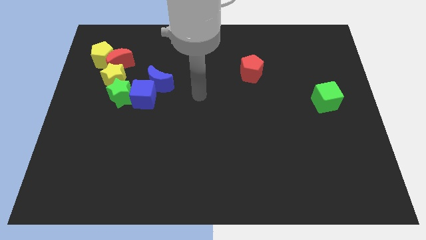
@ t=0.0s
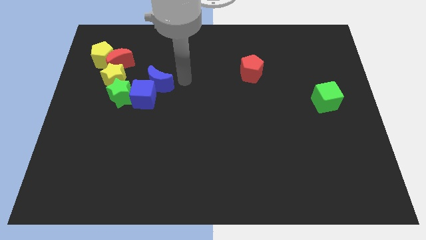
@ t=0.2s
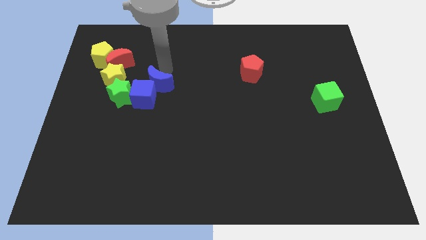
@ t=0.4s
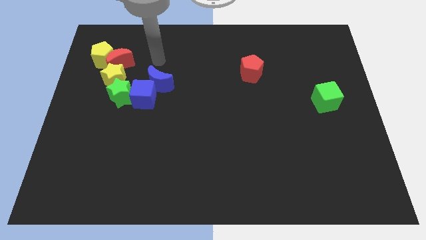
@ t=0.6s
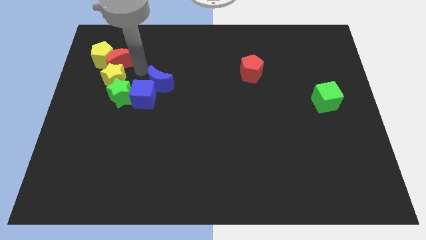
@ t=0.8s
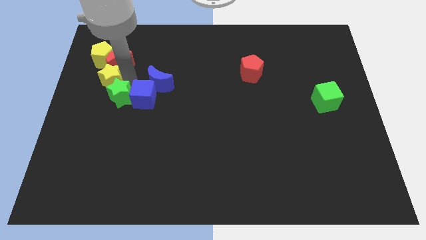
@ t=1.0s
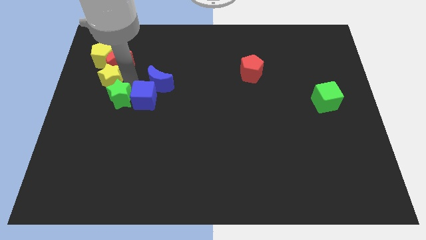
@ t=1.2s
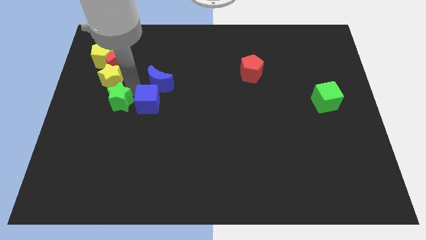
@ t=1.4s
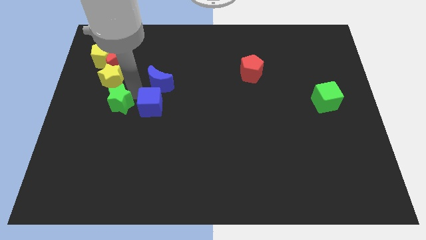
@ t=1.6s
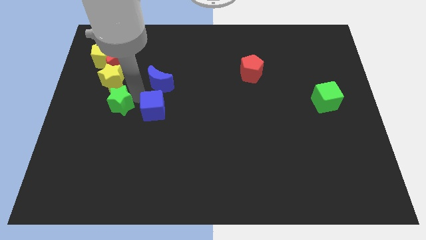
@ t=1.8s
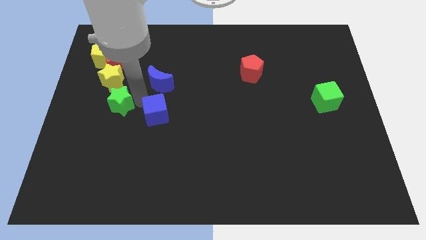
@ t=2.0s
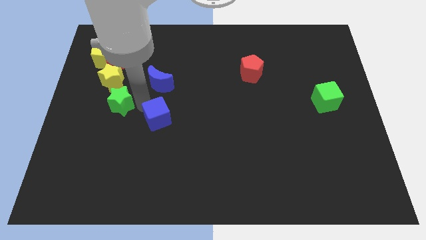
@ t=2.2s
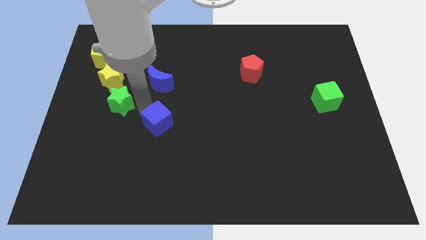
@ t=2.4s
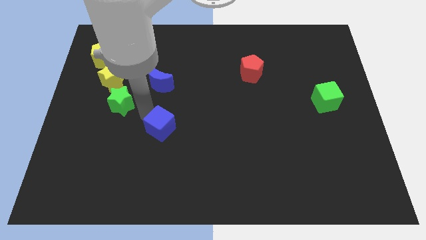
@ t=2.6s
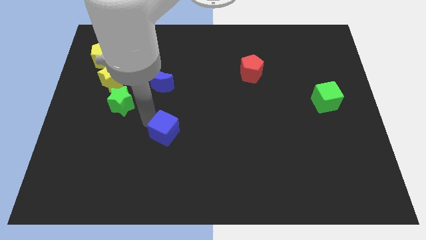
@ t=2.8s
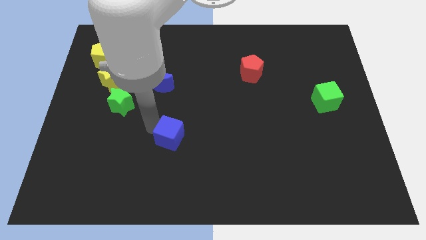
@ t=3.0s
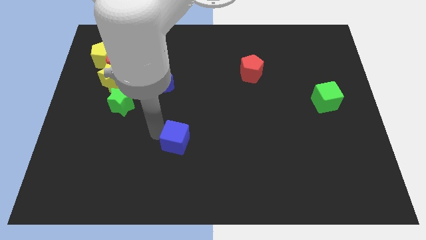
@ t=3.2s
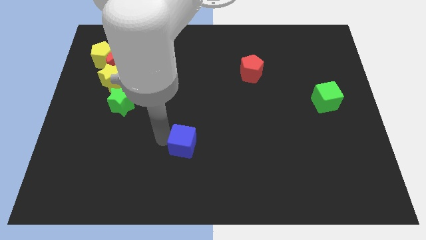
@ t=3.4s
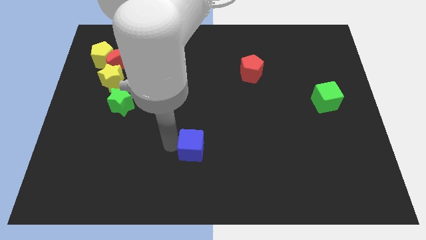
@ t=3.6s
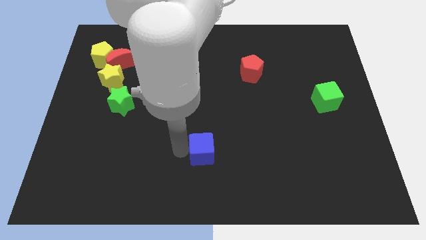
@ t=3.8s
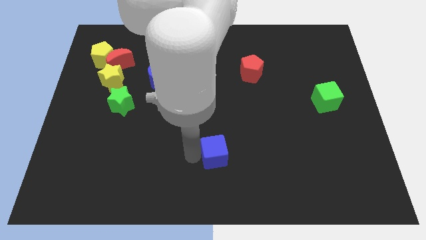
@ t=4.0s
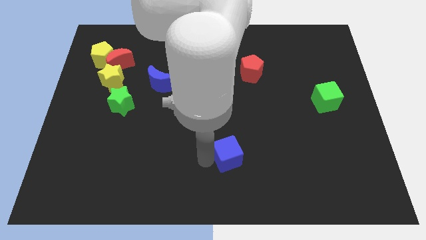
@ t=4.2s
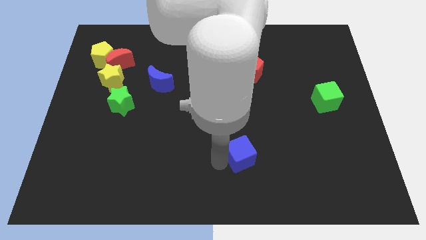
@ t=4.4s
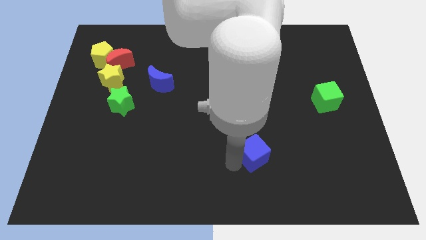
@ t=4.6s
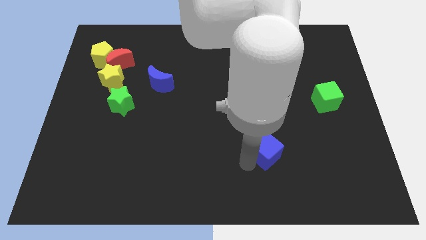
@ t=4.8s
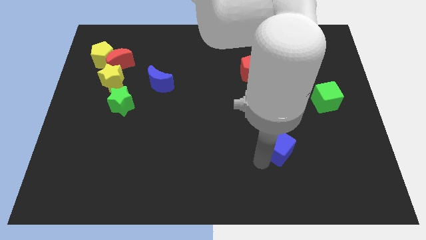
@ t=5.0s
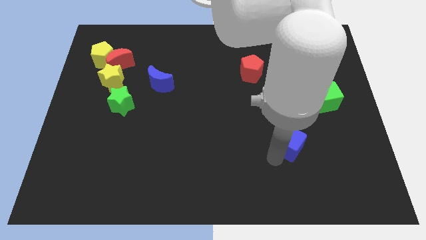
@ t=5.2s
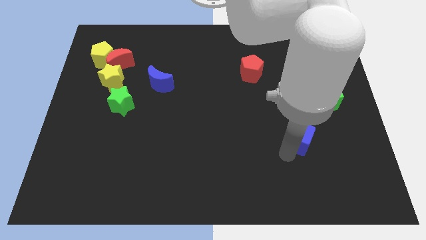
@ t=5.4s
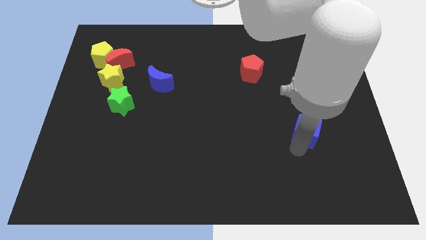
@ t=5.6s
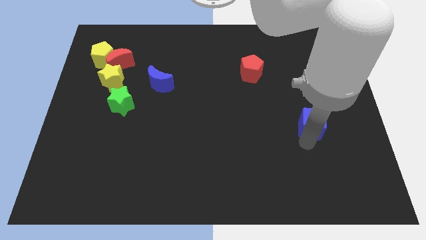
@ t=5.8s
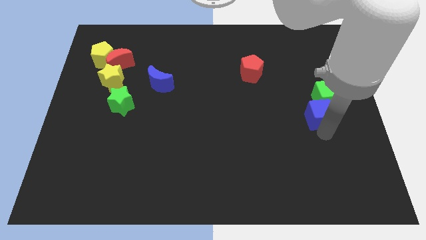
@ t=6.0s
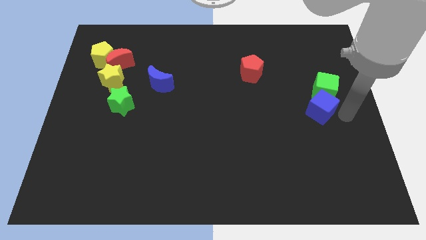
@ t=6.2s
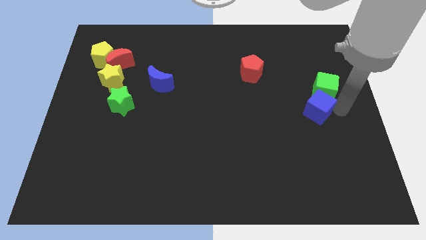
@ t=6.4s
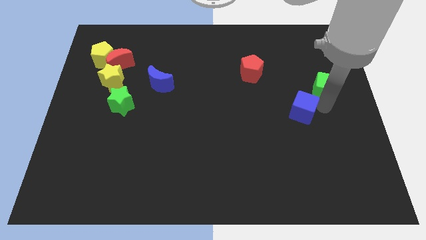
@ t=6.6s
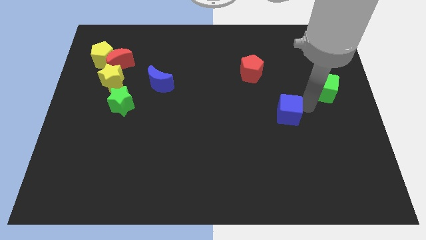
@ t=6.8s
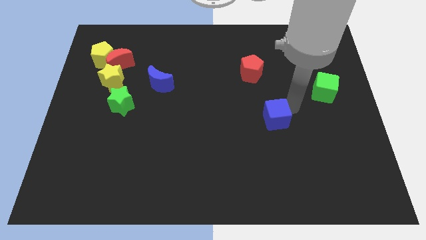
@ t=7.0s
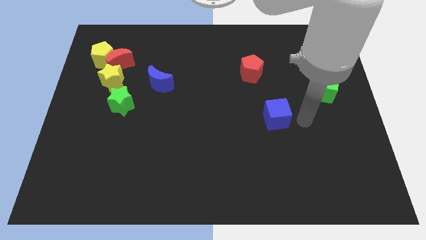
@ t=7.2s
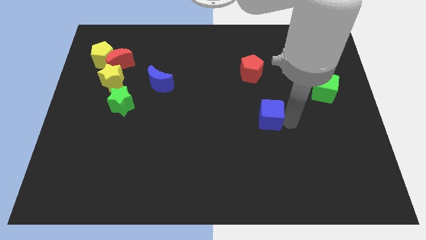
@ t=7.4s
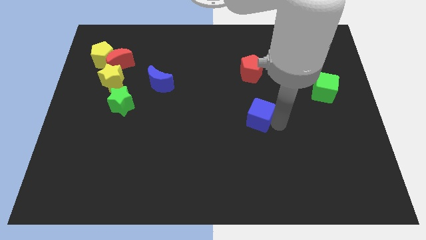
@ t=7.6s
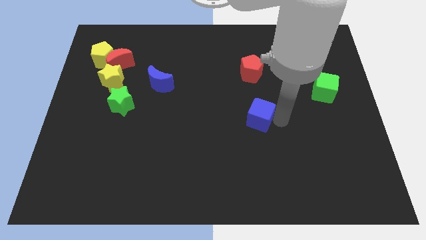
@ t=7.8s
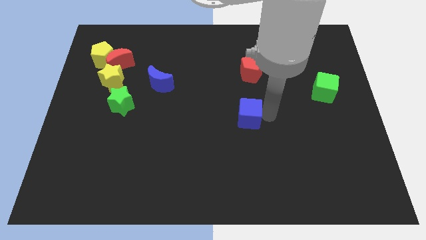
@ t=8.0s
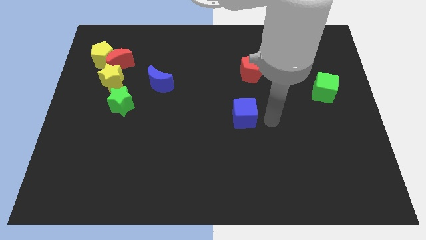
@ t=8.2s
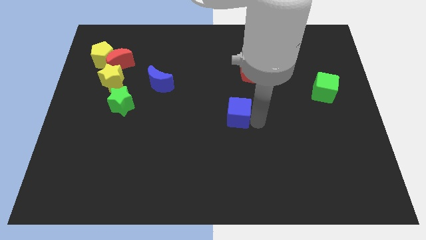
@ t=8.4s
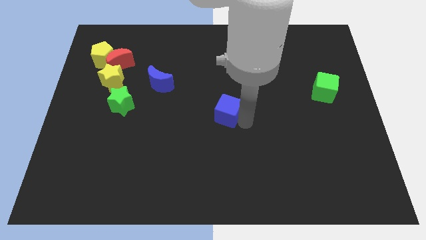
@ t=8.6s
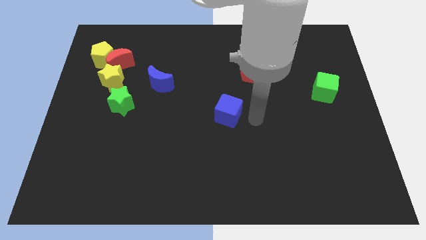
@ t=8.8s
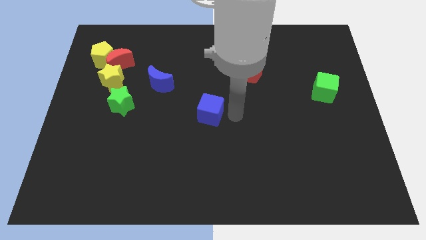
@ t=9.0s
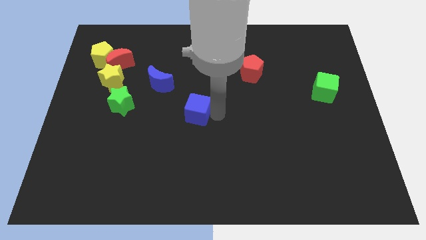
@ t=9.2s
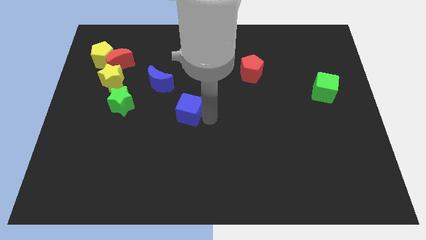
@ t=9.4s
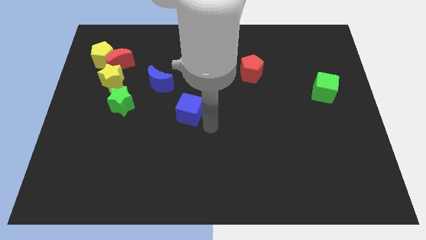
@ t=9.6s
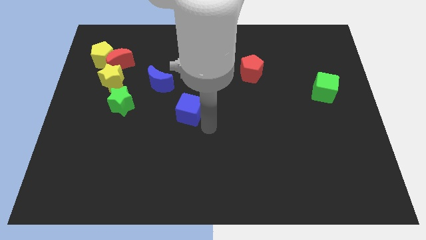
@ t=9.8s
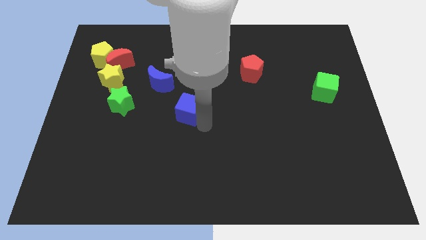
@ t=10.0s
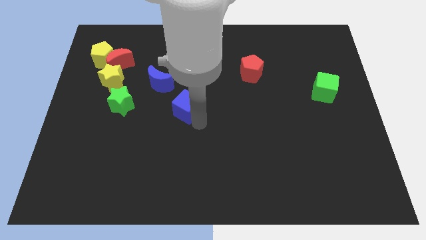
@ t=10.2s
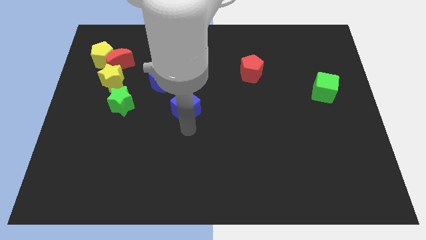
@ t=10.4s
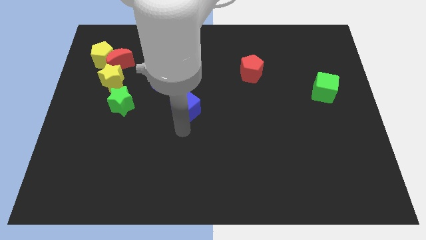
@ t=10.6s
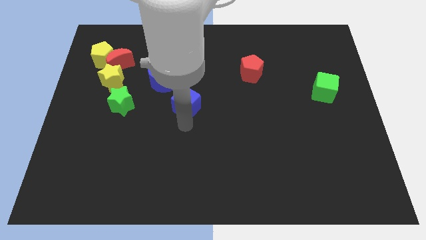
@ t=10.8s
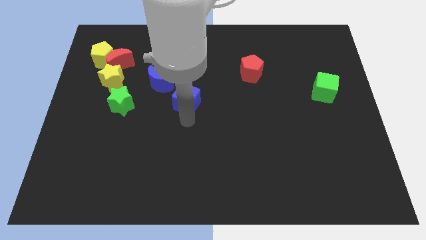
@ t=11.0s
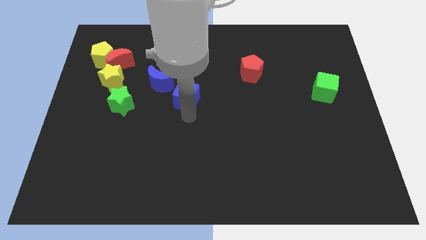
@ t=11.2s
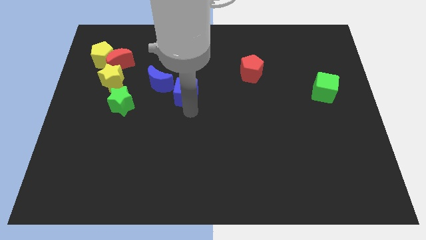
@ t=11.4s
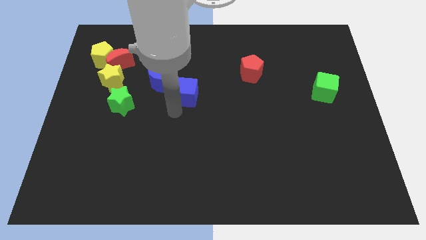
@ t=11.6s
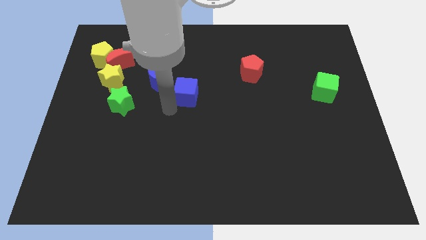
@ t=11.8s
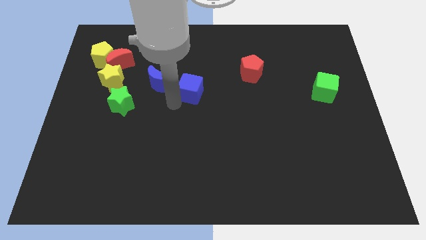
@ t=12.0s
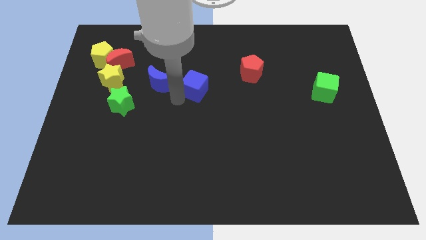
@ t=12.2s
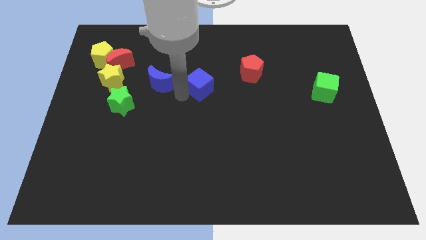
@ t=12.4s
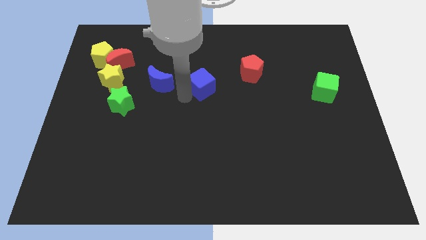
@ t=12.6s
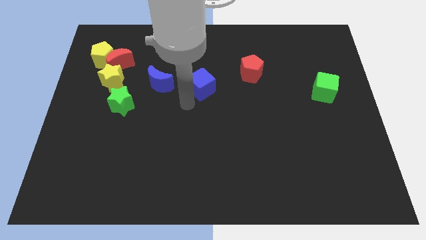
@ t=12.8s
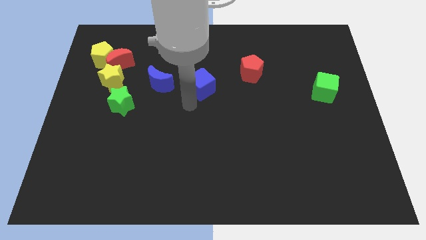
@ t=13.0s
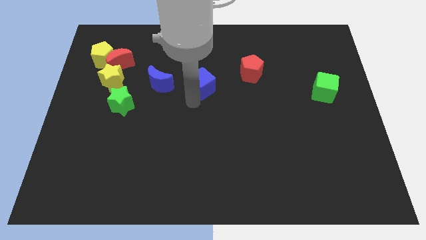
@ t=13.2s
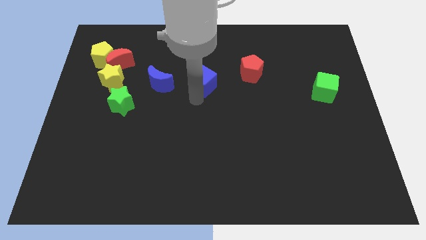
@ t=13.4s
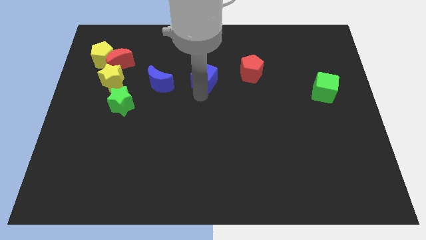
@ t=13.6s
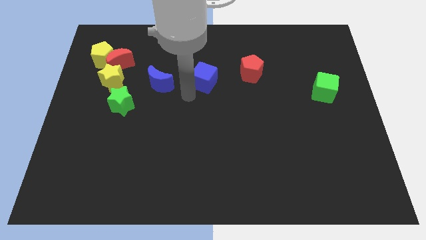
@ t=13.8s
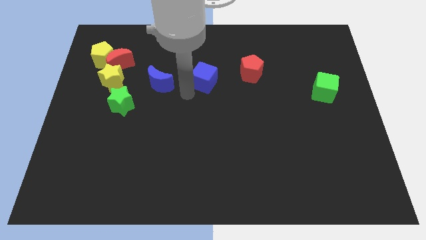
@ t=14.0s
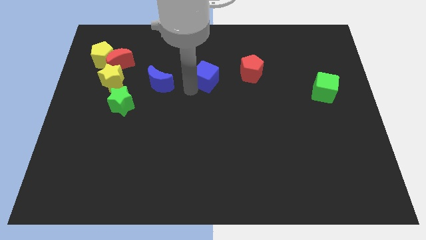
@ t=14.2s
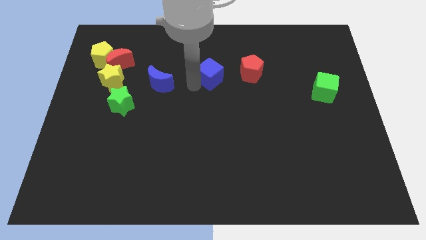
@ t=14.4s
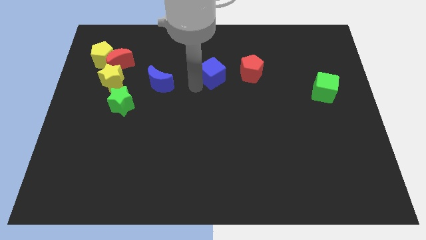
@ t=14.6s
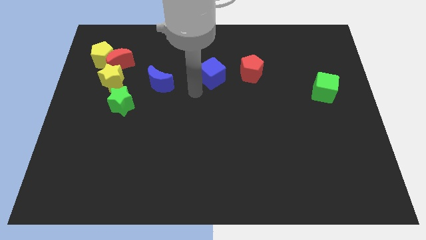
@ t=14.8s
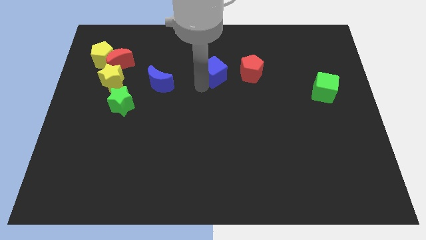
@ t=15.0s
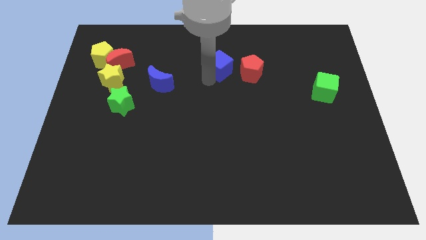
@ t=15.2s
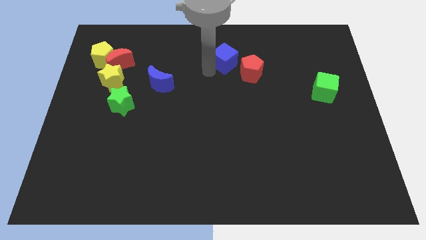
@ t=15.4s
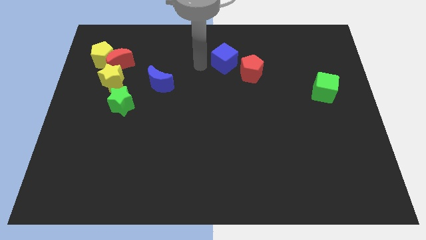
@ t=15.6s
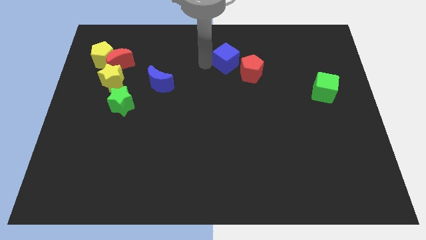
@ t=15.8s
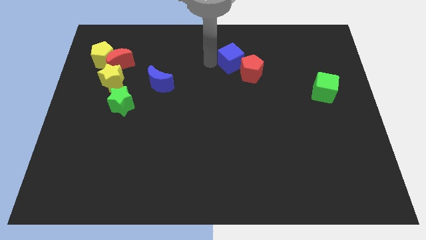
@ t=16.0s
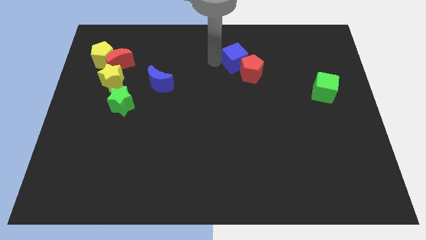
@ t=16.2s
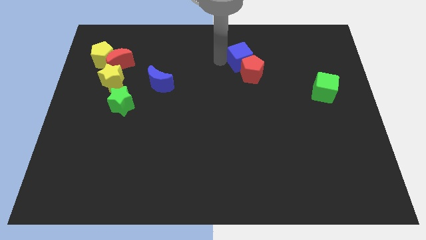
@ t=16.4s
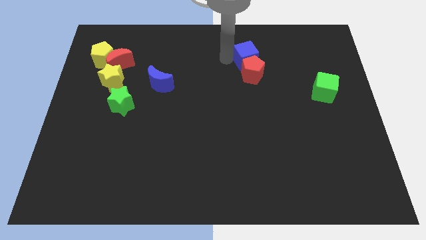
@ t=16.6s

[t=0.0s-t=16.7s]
move the blue cube to the top right of the red pentagon
